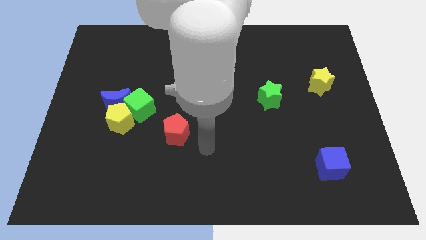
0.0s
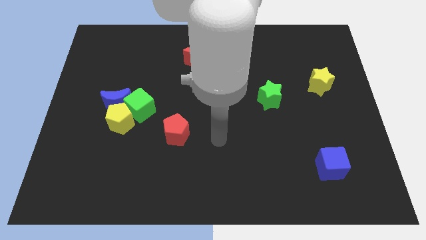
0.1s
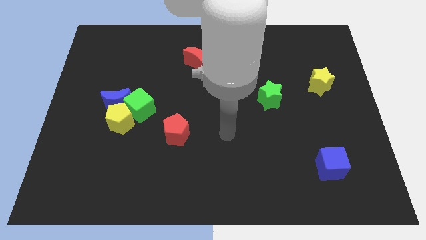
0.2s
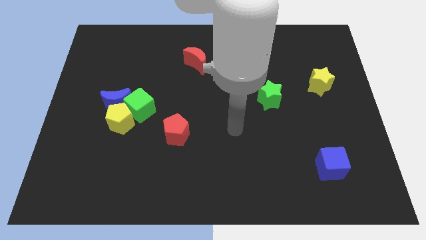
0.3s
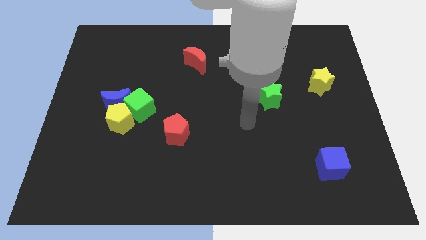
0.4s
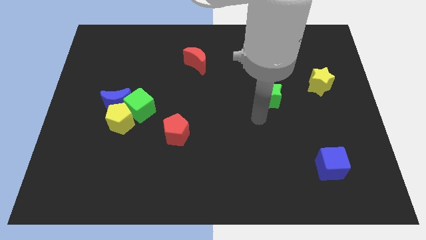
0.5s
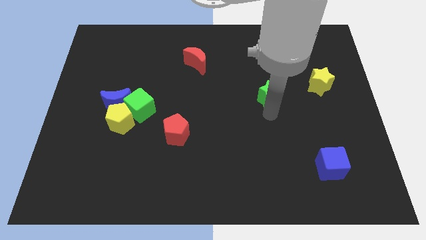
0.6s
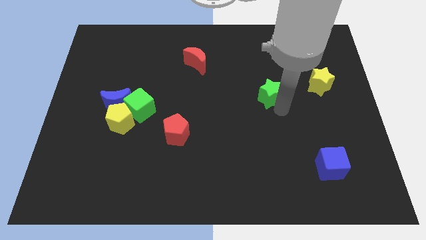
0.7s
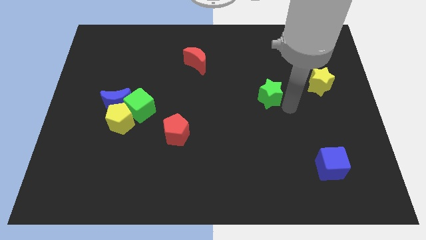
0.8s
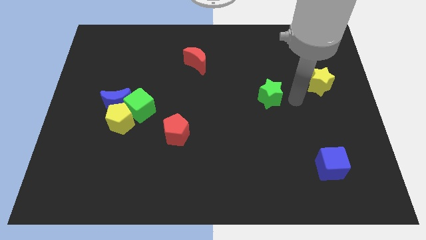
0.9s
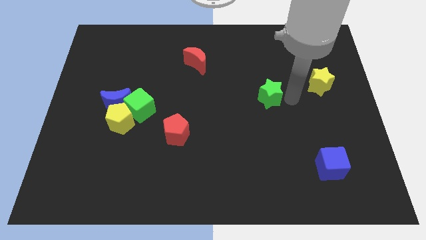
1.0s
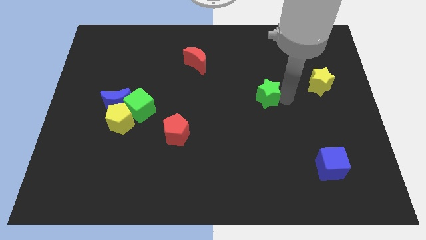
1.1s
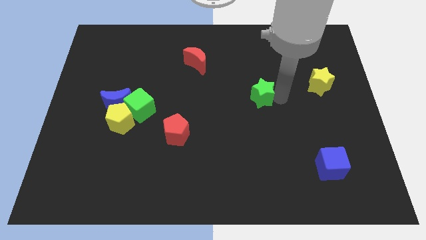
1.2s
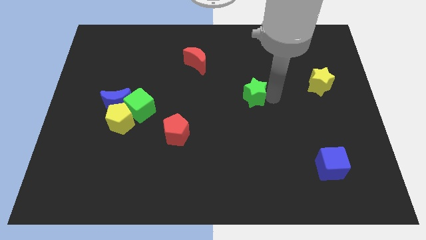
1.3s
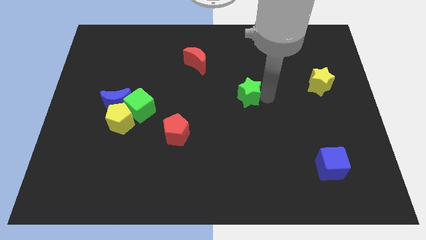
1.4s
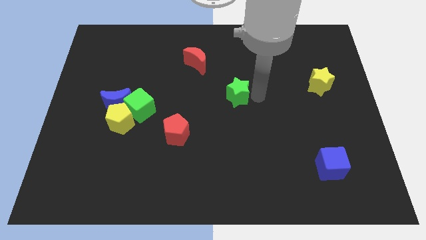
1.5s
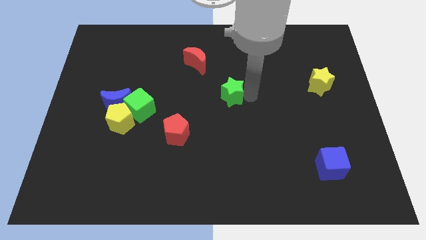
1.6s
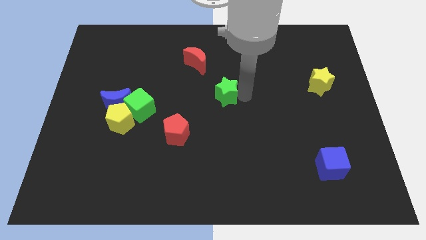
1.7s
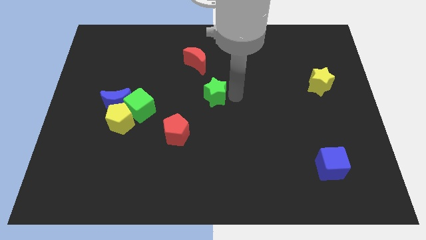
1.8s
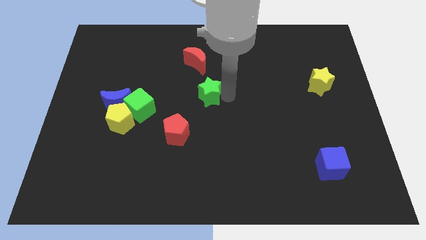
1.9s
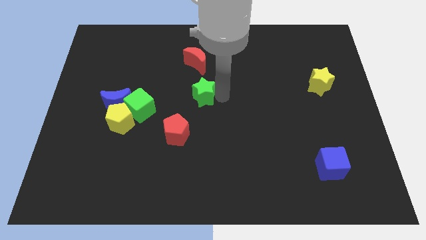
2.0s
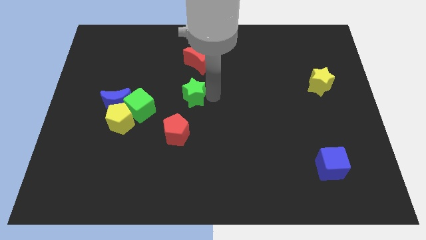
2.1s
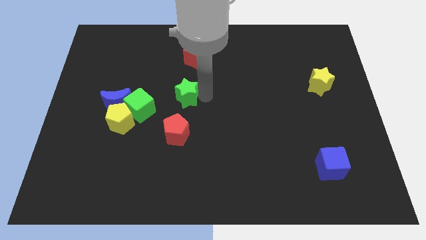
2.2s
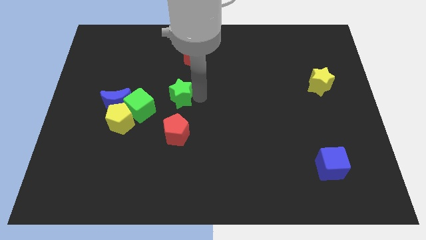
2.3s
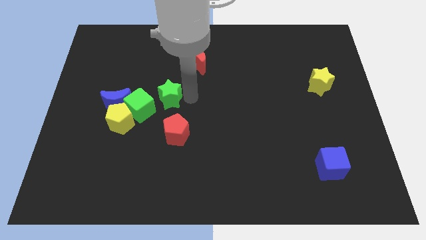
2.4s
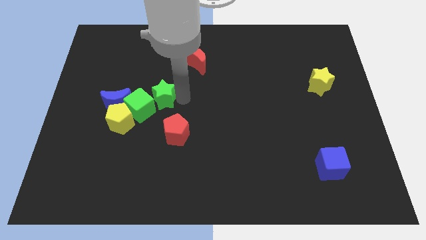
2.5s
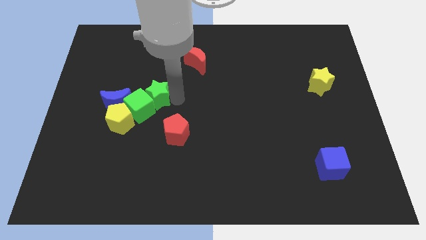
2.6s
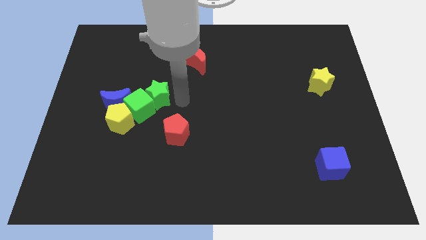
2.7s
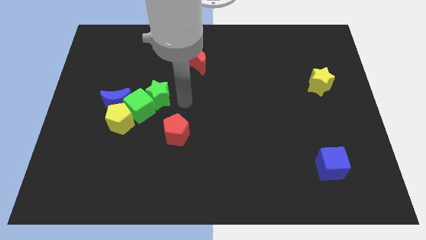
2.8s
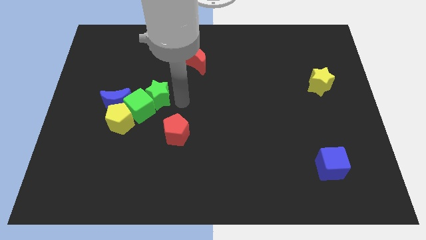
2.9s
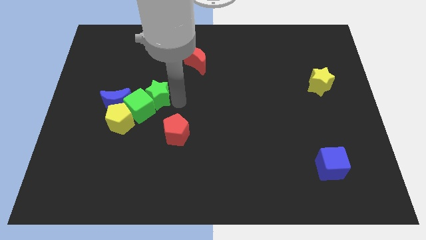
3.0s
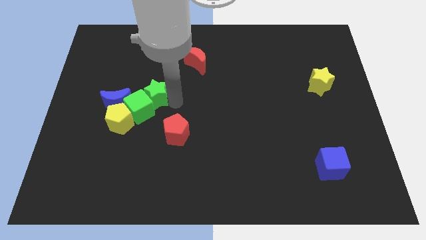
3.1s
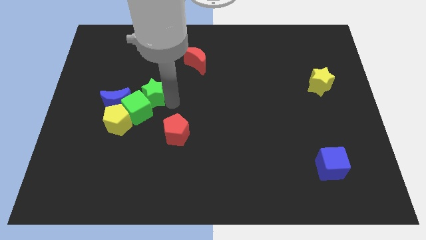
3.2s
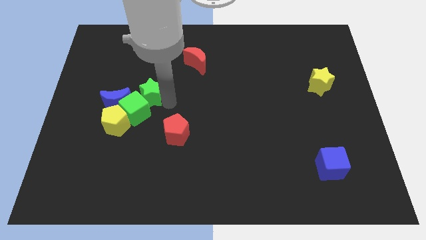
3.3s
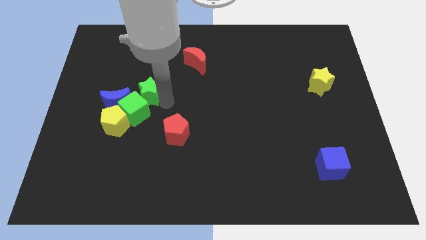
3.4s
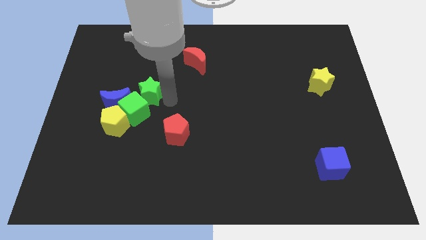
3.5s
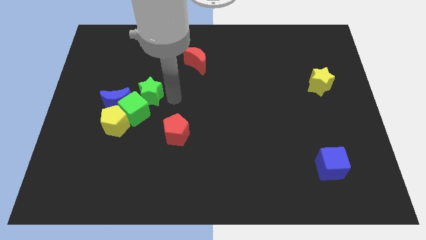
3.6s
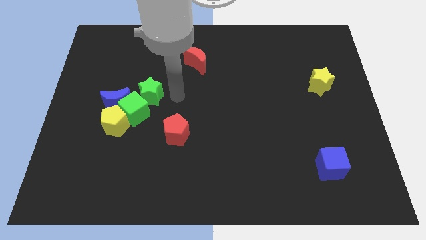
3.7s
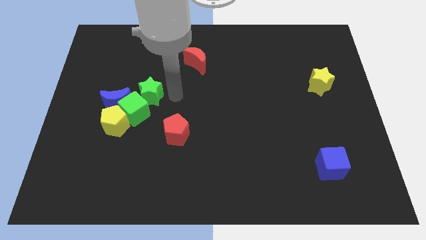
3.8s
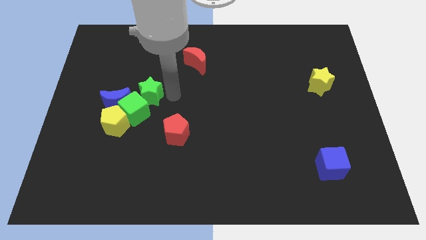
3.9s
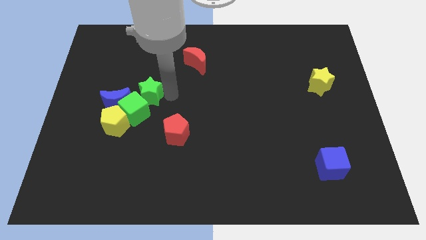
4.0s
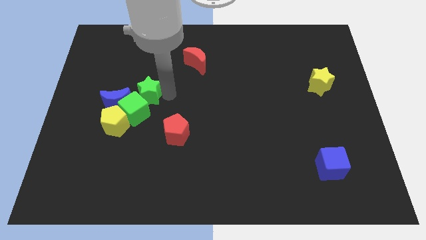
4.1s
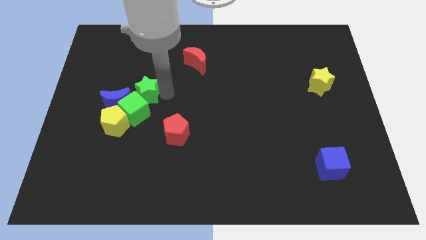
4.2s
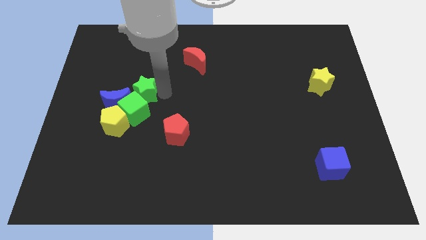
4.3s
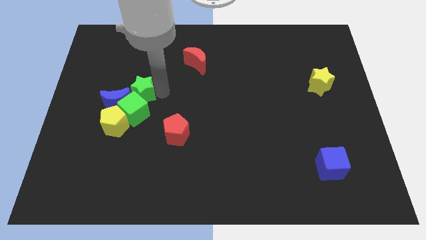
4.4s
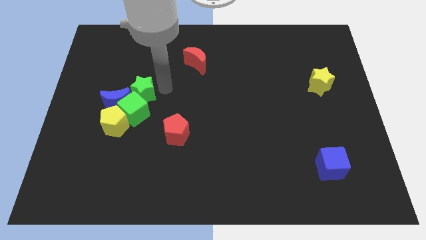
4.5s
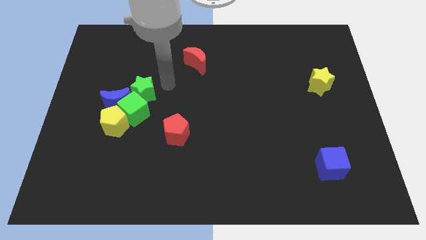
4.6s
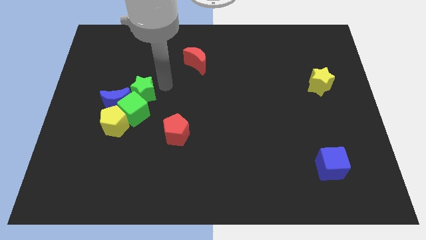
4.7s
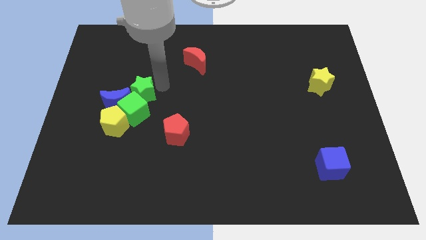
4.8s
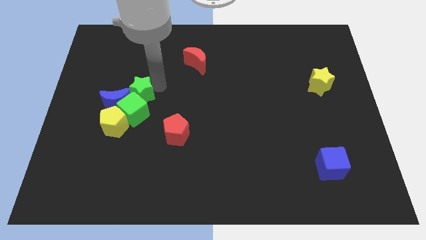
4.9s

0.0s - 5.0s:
put the green star towards the blue moon

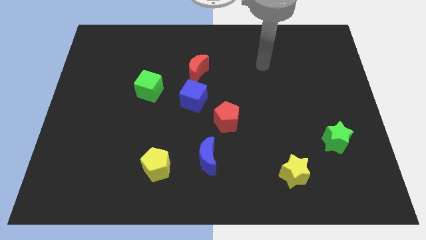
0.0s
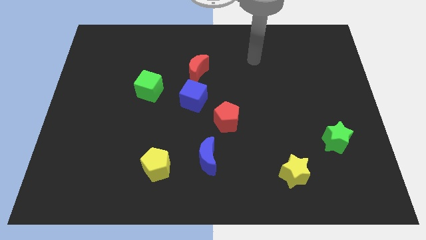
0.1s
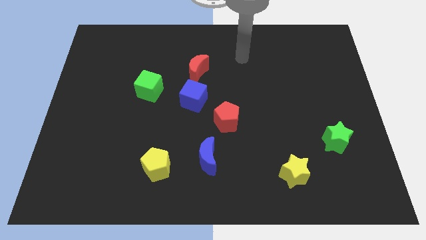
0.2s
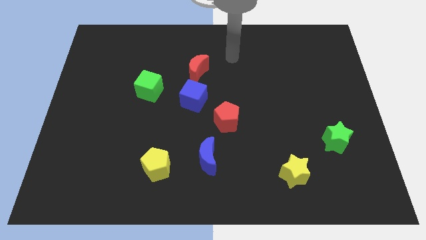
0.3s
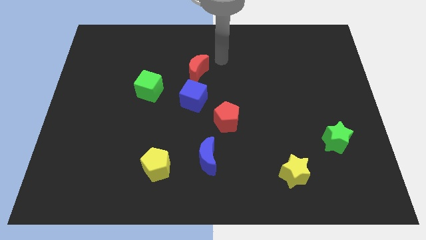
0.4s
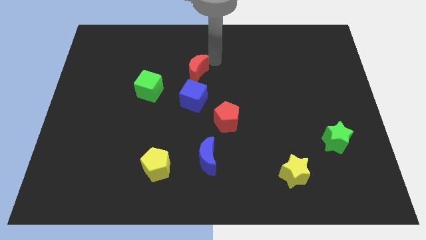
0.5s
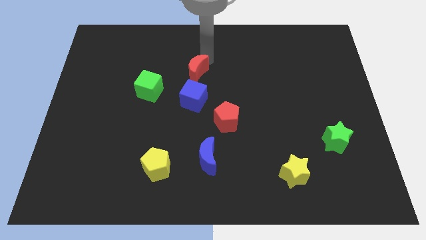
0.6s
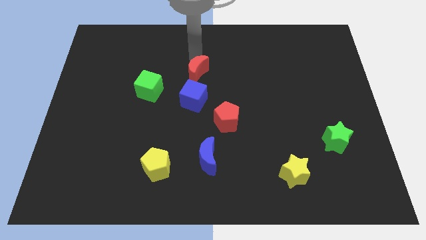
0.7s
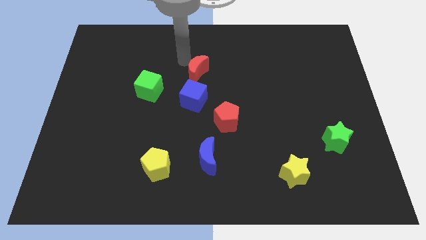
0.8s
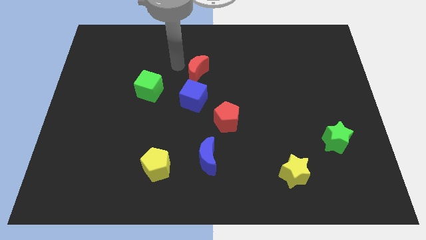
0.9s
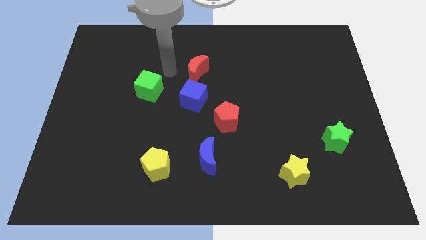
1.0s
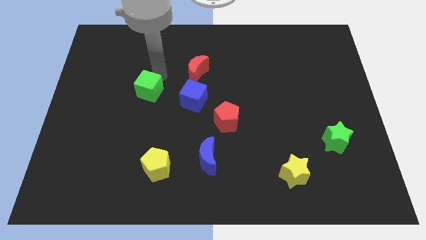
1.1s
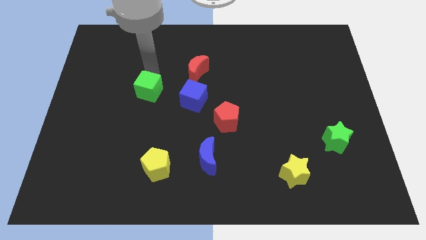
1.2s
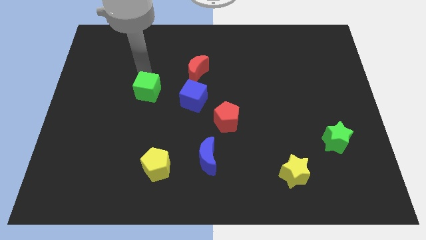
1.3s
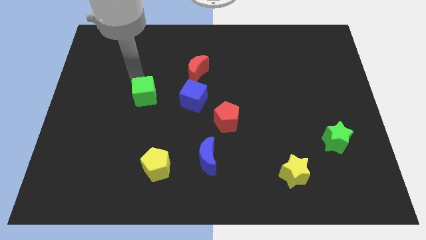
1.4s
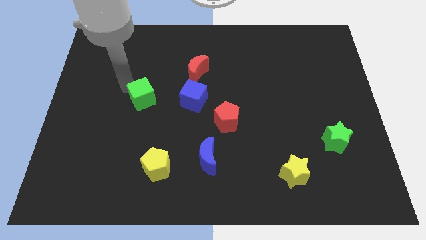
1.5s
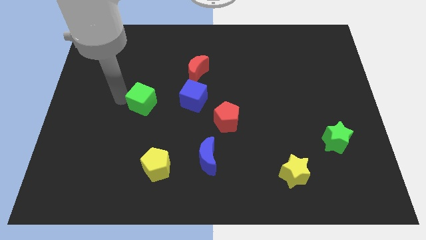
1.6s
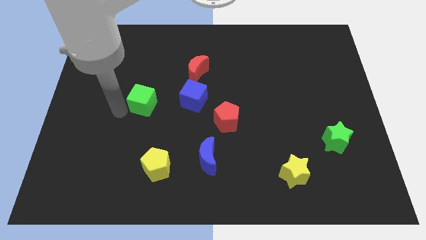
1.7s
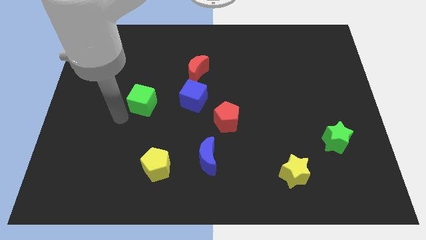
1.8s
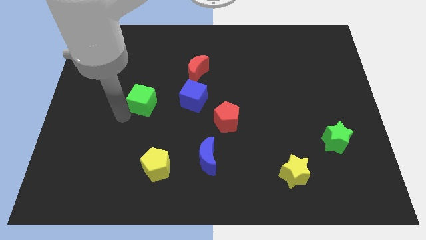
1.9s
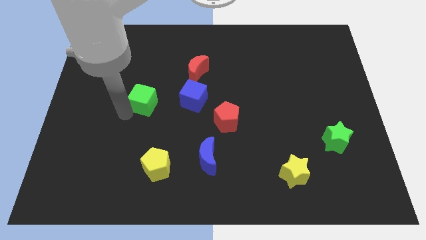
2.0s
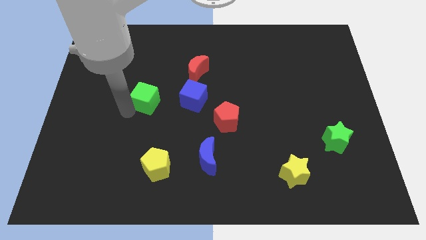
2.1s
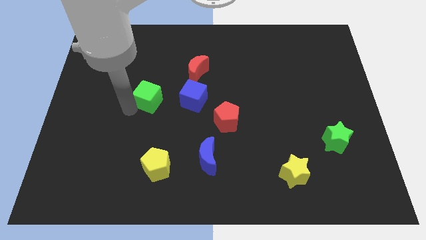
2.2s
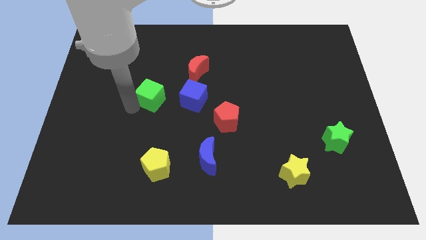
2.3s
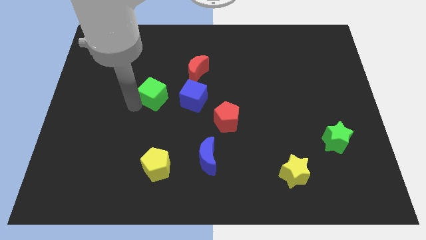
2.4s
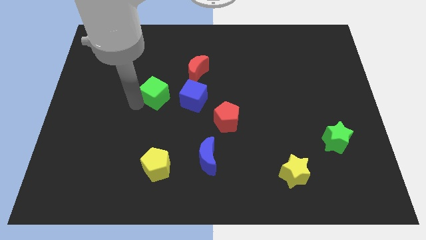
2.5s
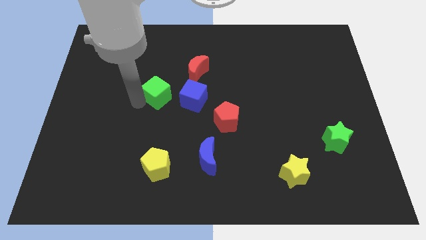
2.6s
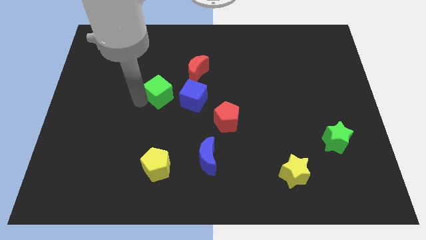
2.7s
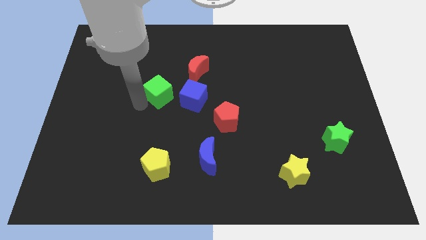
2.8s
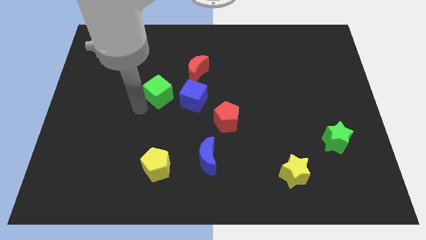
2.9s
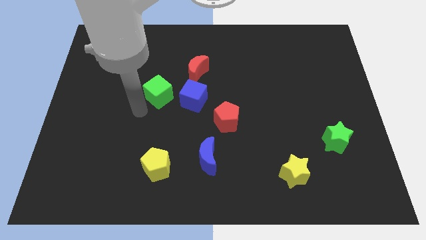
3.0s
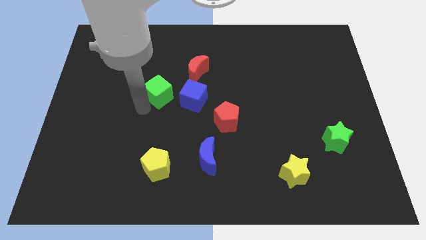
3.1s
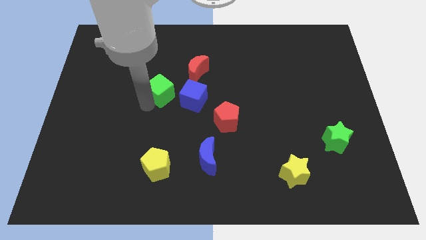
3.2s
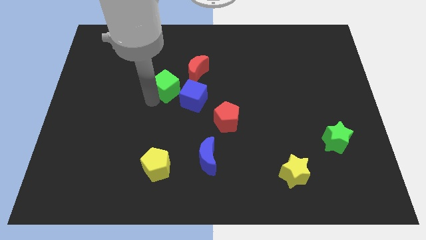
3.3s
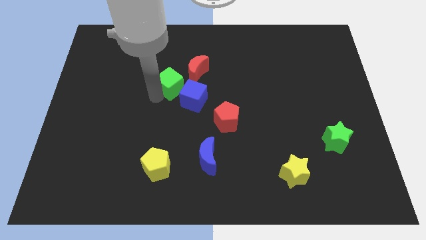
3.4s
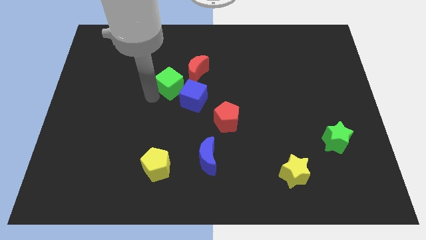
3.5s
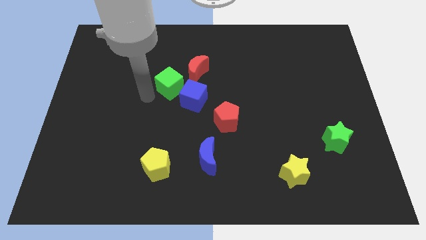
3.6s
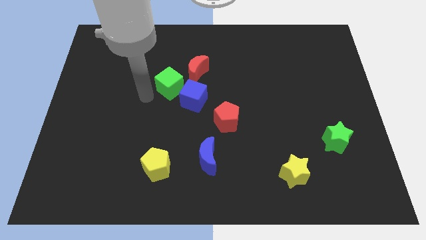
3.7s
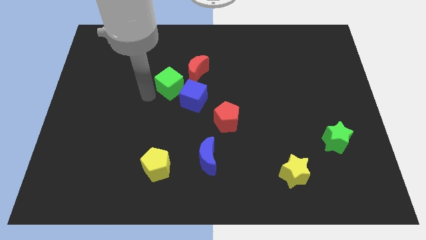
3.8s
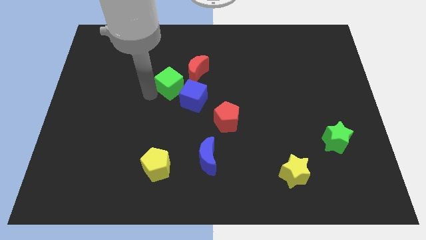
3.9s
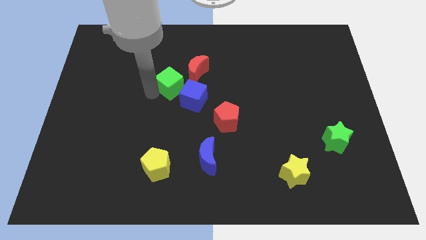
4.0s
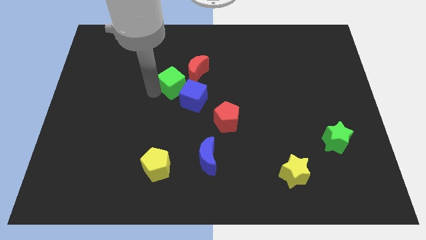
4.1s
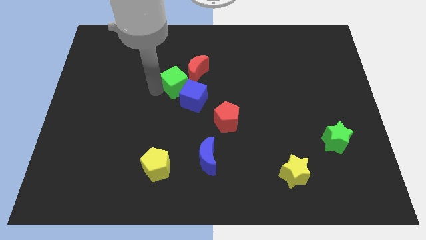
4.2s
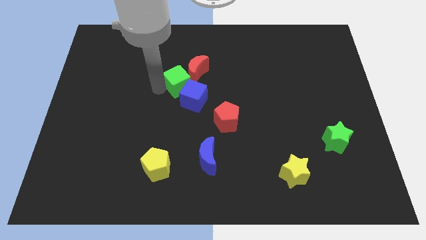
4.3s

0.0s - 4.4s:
put the green cube to the red moon
